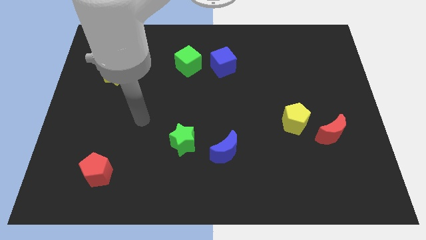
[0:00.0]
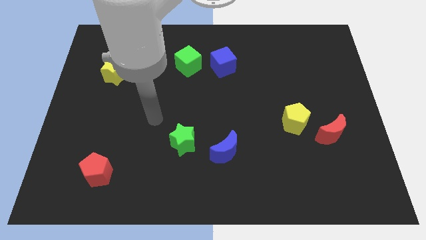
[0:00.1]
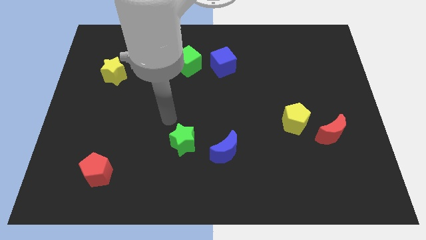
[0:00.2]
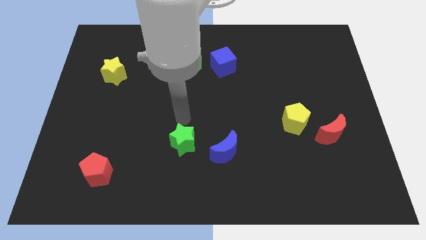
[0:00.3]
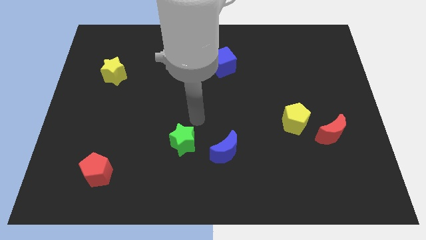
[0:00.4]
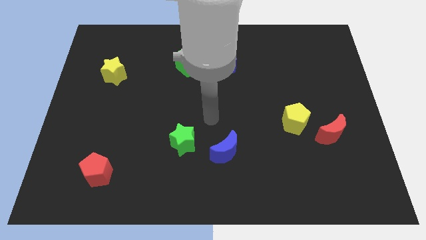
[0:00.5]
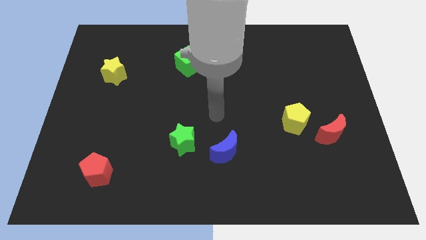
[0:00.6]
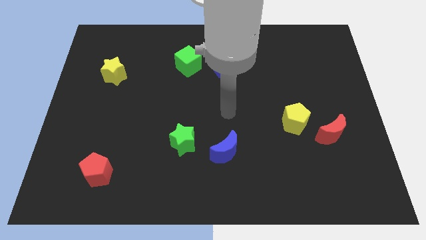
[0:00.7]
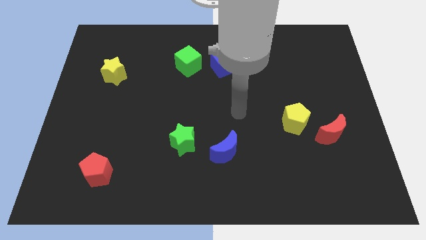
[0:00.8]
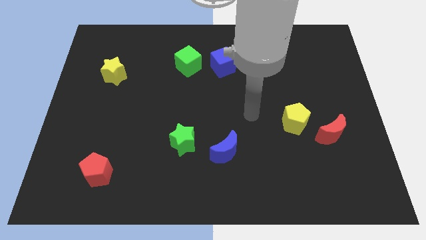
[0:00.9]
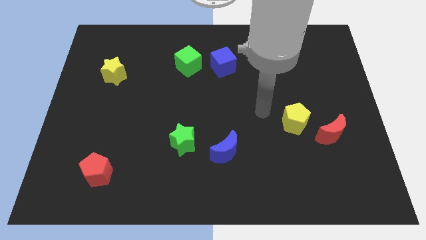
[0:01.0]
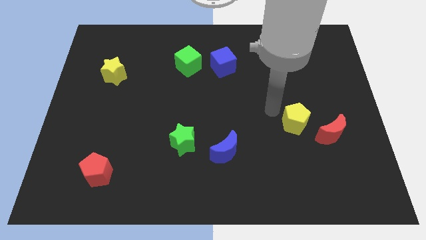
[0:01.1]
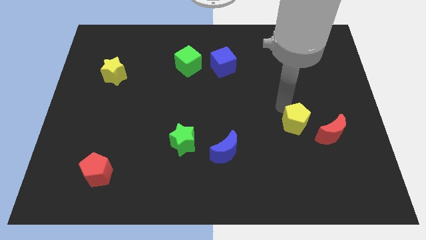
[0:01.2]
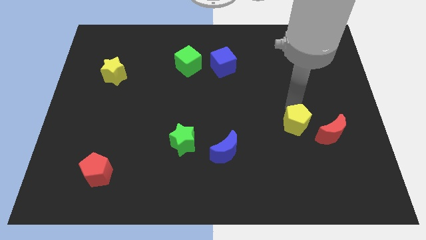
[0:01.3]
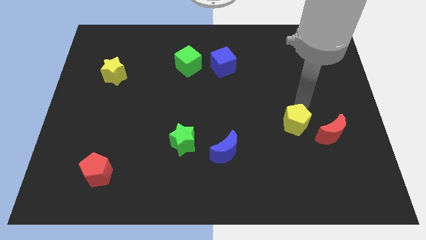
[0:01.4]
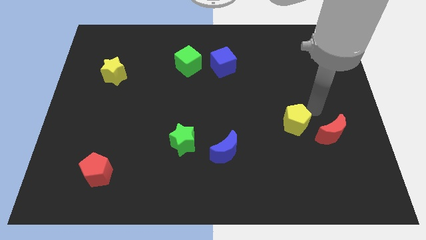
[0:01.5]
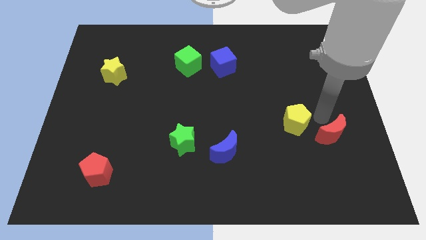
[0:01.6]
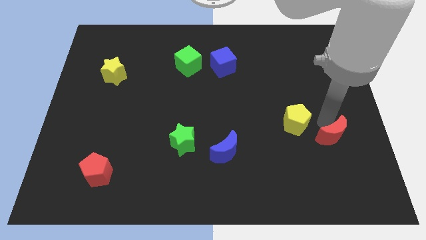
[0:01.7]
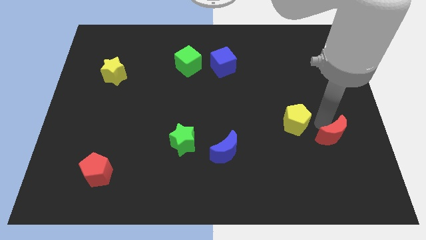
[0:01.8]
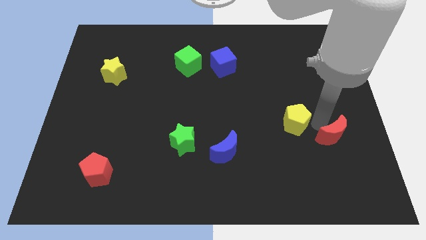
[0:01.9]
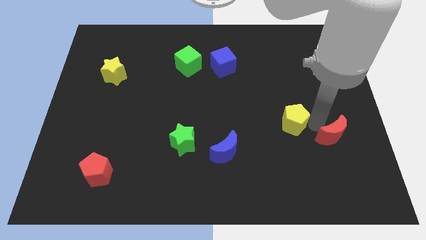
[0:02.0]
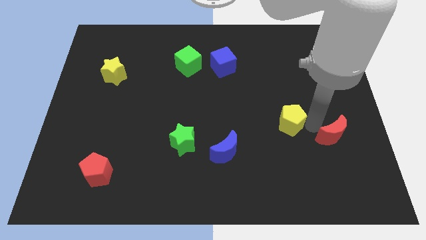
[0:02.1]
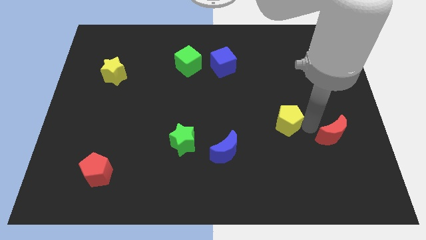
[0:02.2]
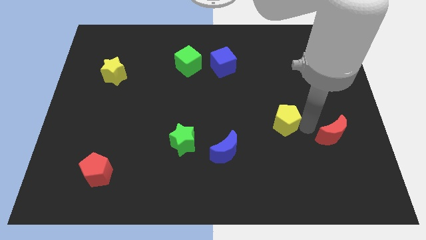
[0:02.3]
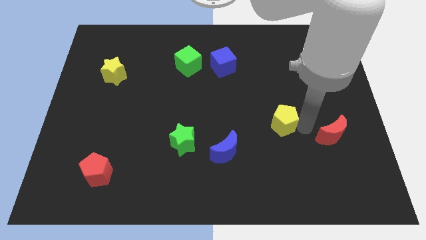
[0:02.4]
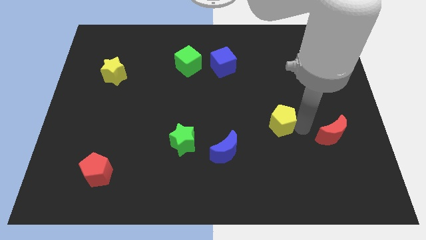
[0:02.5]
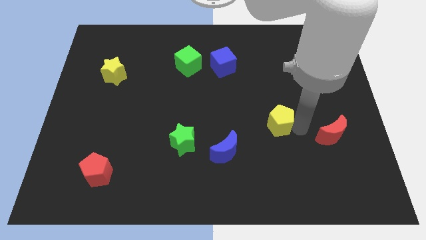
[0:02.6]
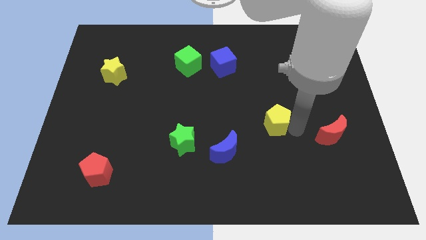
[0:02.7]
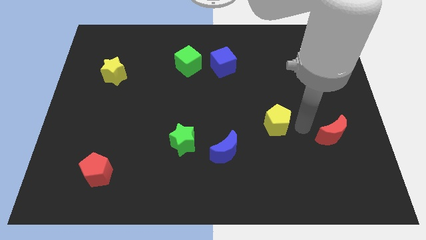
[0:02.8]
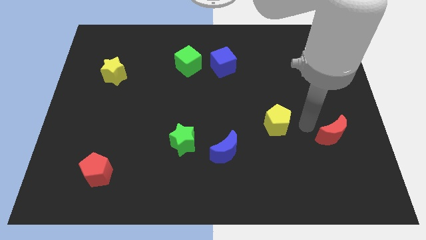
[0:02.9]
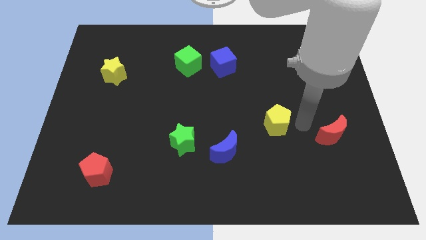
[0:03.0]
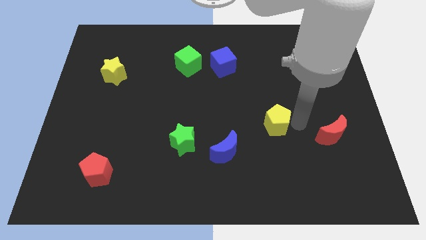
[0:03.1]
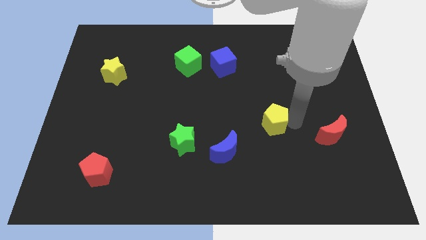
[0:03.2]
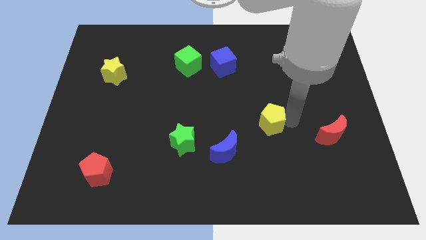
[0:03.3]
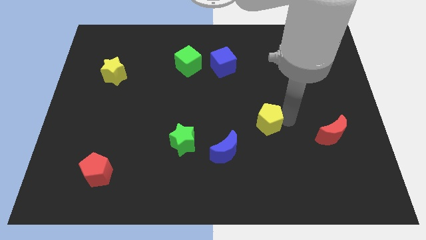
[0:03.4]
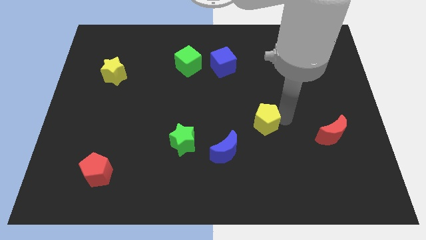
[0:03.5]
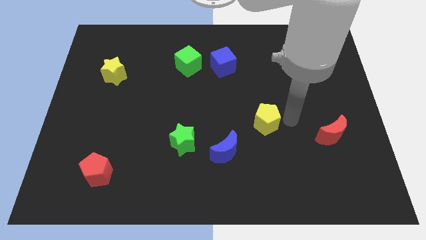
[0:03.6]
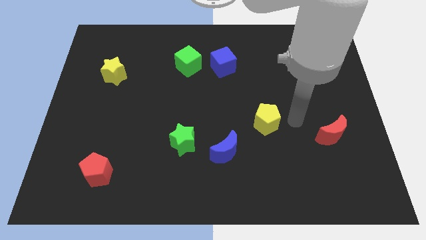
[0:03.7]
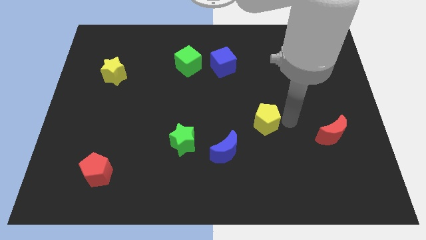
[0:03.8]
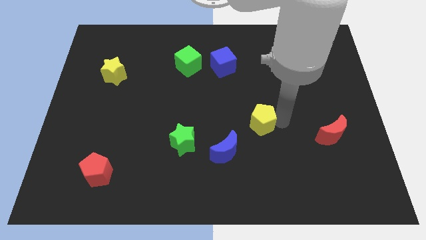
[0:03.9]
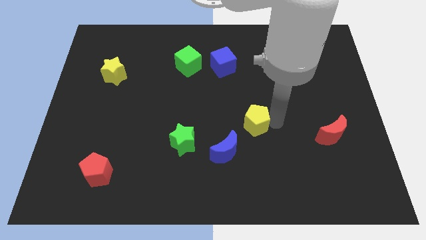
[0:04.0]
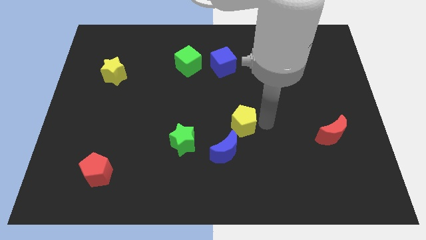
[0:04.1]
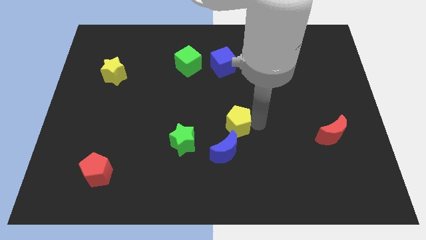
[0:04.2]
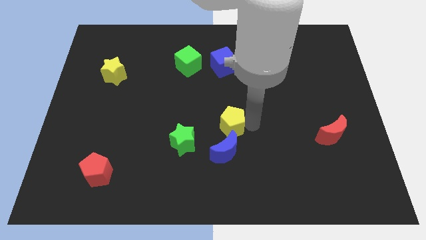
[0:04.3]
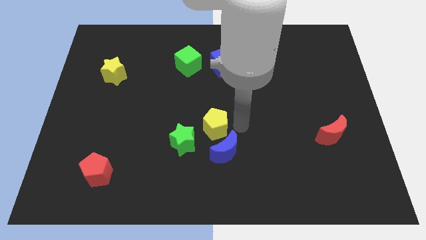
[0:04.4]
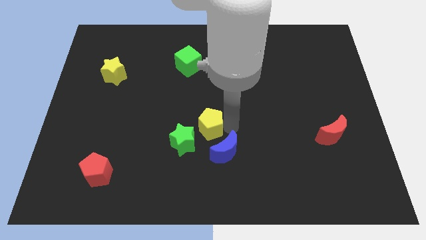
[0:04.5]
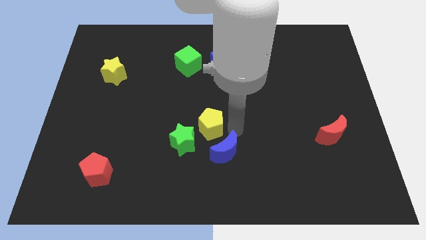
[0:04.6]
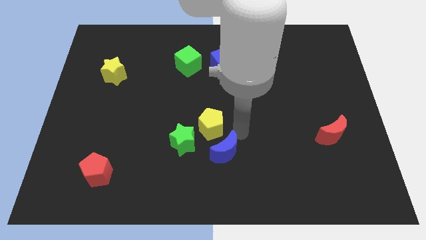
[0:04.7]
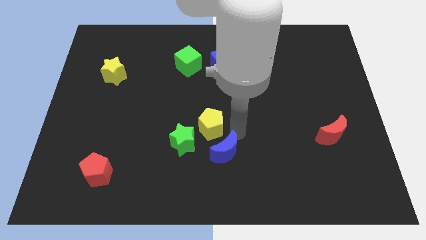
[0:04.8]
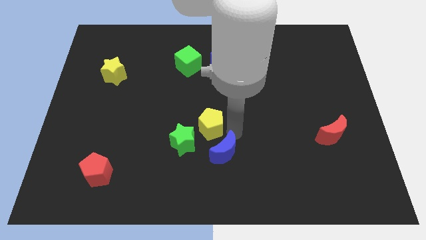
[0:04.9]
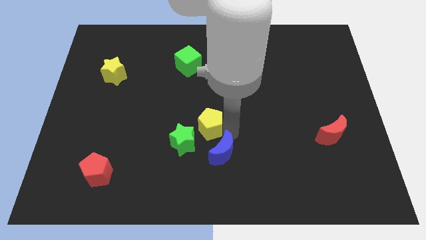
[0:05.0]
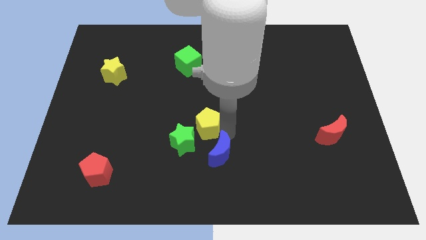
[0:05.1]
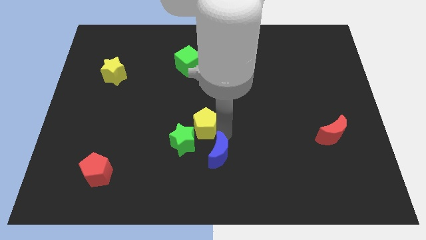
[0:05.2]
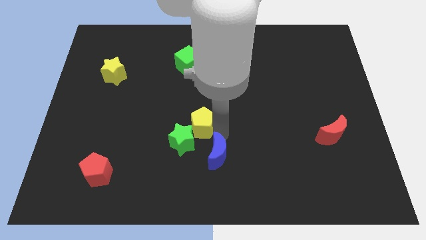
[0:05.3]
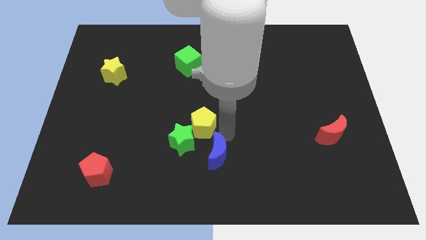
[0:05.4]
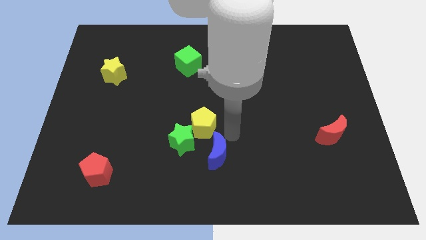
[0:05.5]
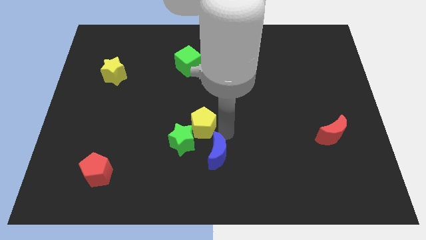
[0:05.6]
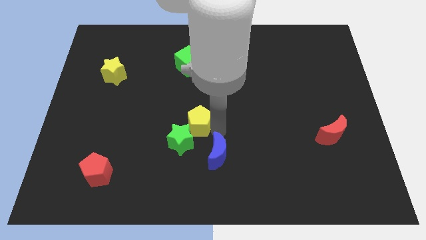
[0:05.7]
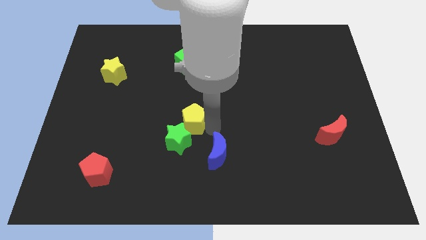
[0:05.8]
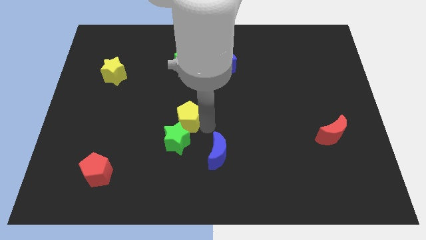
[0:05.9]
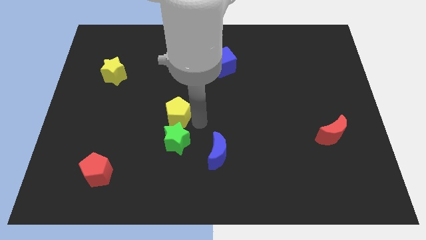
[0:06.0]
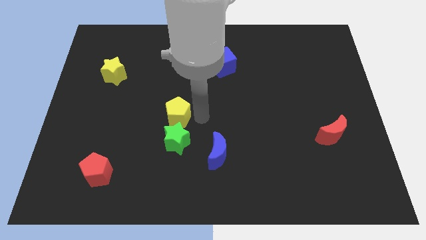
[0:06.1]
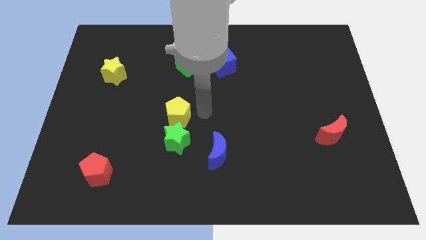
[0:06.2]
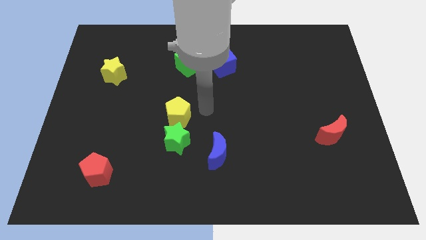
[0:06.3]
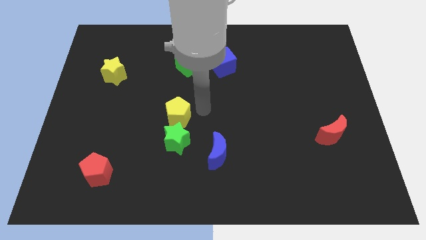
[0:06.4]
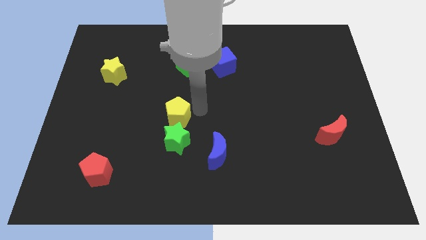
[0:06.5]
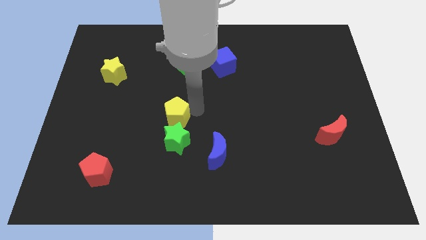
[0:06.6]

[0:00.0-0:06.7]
push the yellow pentagon to the top left of the green star
